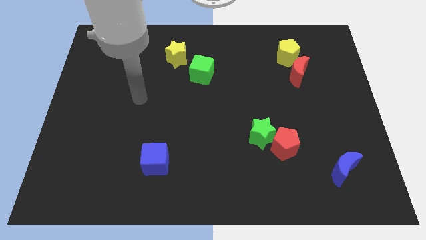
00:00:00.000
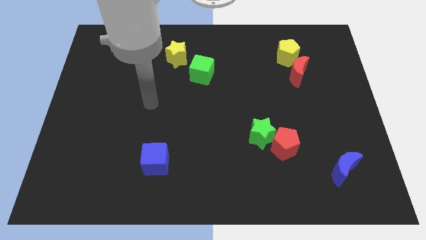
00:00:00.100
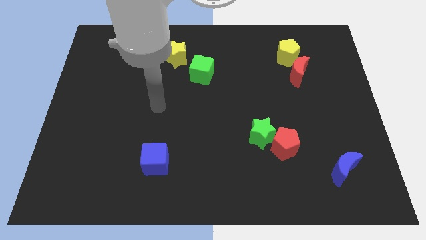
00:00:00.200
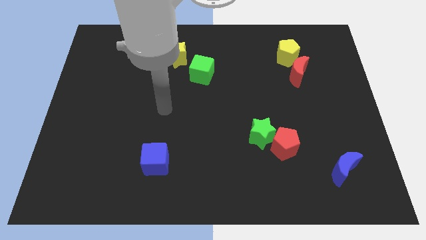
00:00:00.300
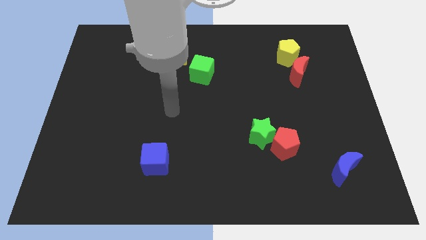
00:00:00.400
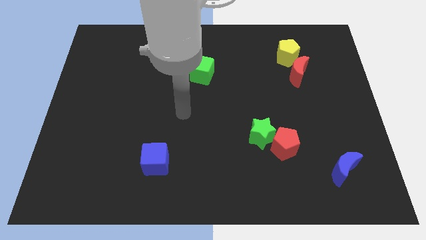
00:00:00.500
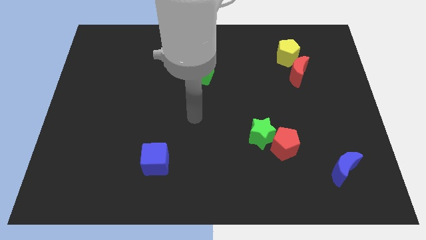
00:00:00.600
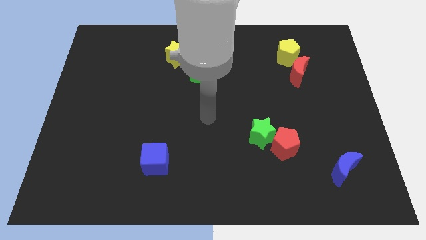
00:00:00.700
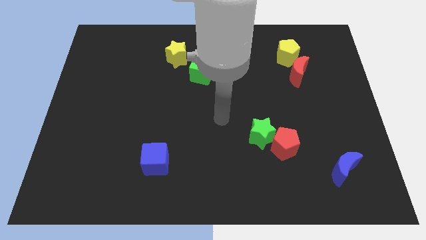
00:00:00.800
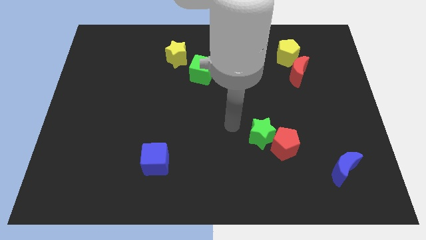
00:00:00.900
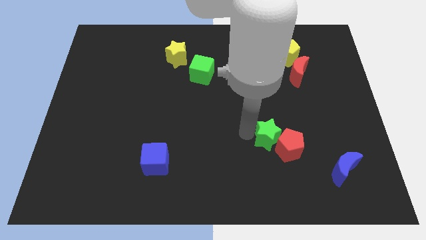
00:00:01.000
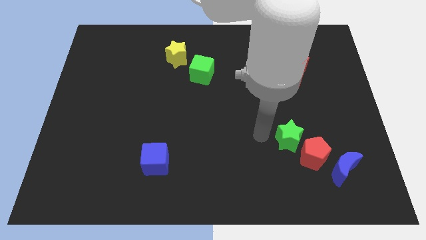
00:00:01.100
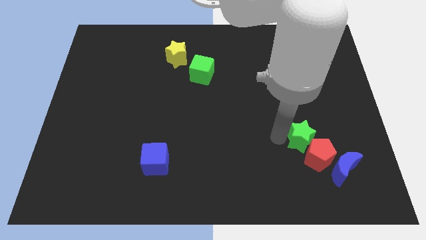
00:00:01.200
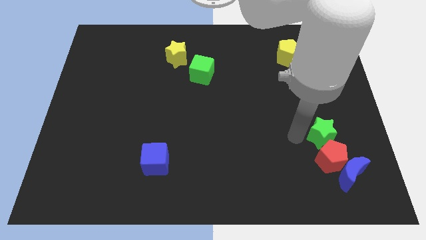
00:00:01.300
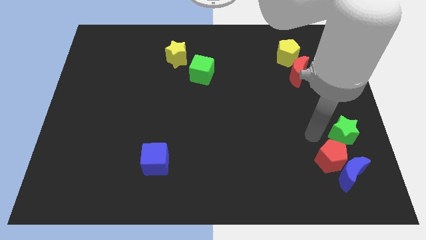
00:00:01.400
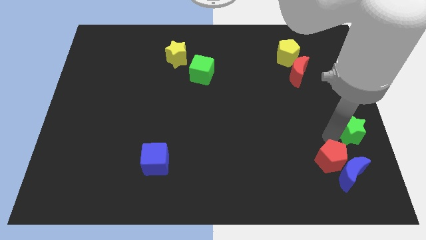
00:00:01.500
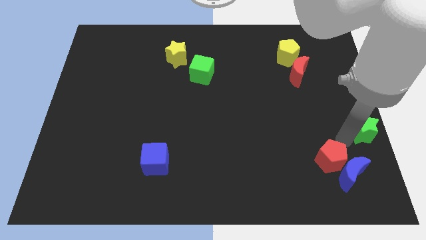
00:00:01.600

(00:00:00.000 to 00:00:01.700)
pull the red pentagon apart from the green star

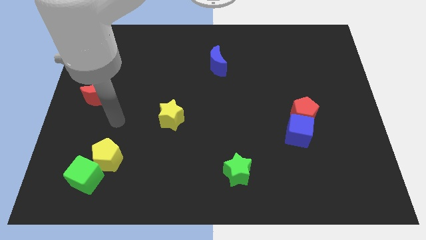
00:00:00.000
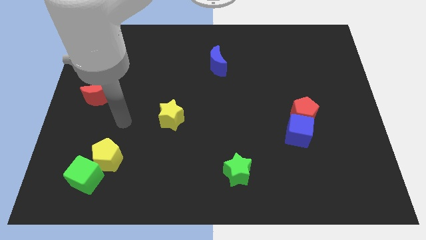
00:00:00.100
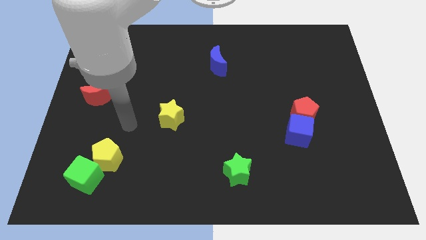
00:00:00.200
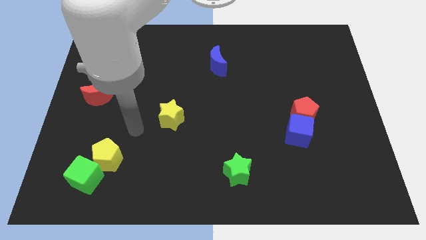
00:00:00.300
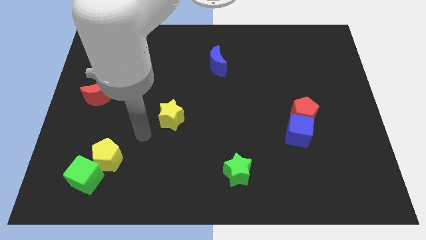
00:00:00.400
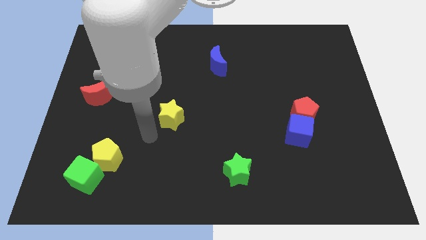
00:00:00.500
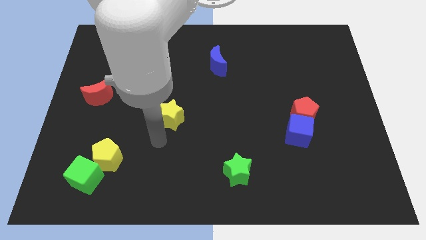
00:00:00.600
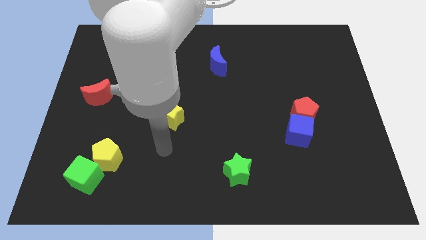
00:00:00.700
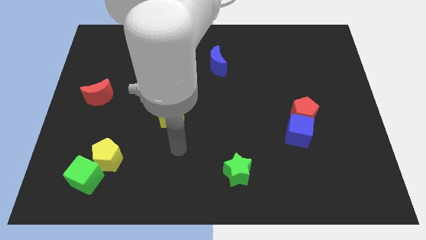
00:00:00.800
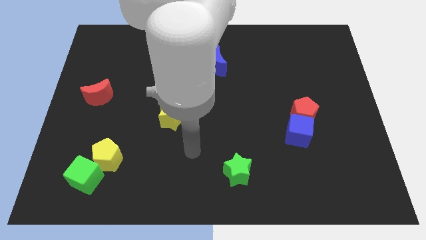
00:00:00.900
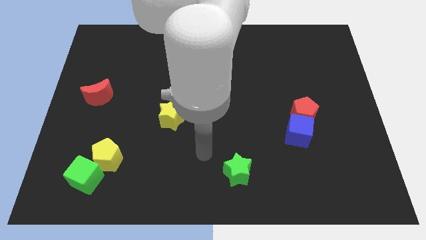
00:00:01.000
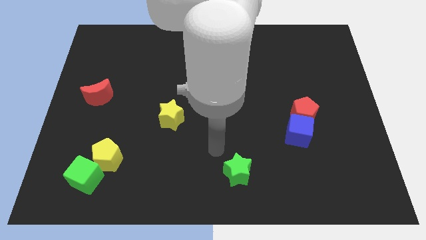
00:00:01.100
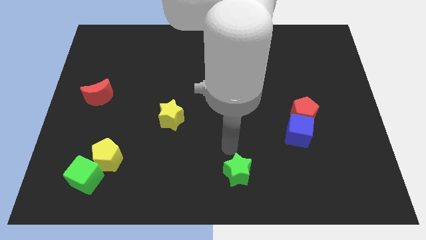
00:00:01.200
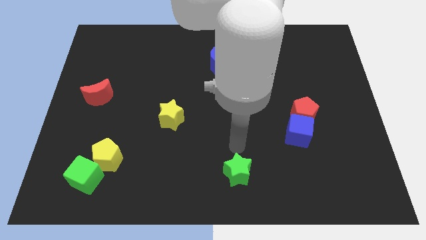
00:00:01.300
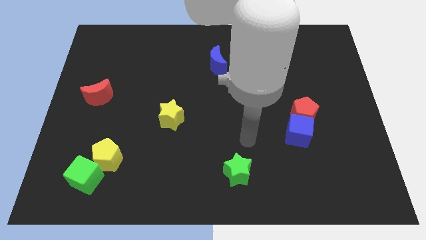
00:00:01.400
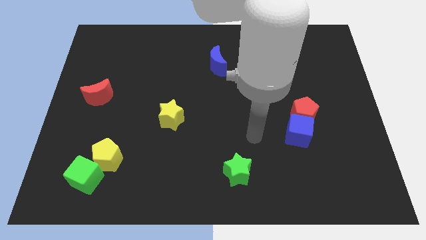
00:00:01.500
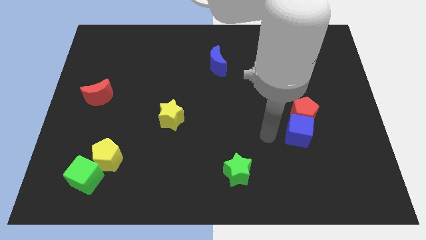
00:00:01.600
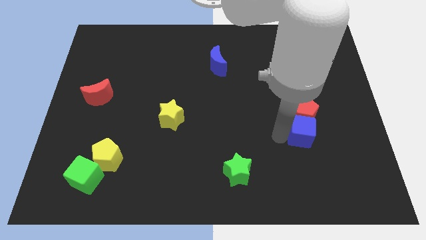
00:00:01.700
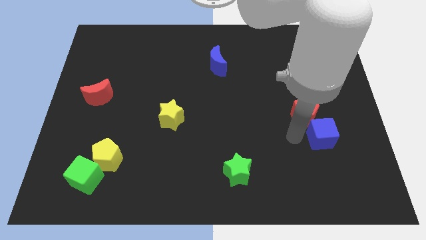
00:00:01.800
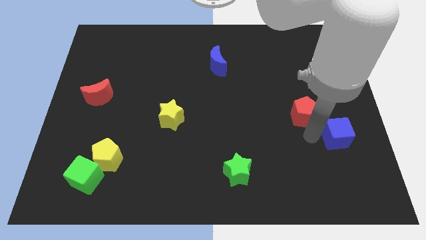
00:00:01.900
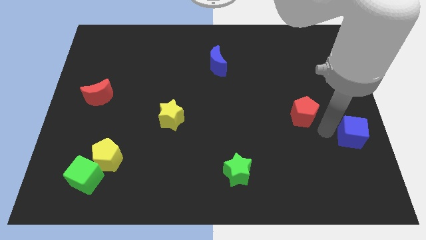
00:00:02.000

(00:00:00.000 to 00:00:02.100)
move the red pentagon away from the blue cube

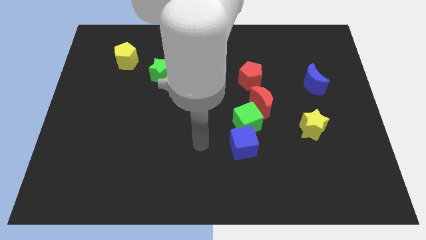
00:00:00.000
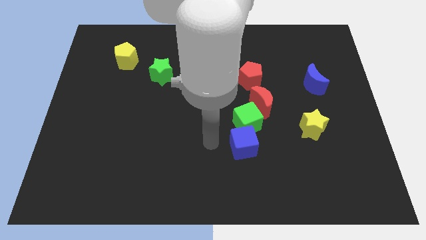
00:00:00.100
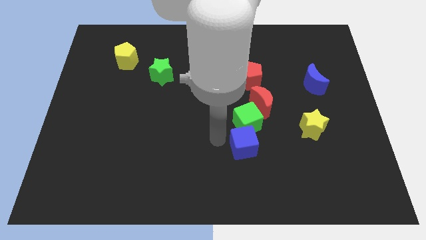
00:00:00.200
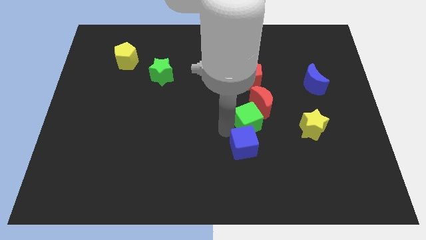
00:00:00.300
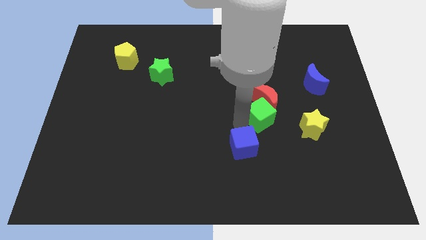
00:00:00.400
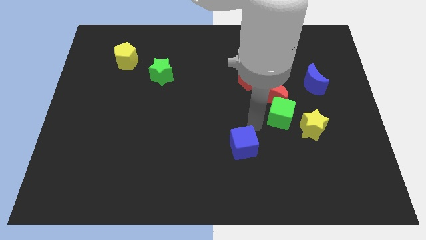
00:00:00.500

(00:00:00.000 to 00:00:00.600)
move the blue cube away from the green cube

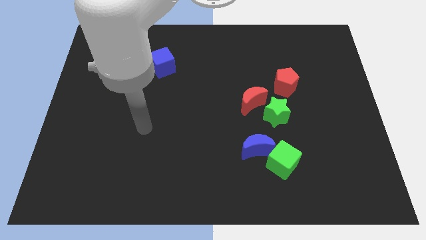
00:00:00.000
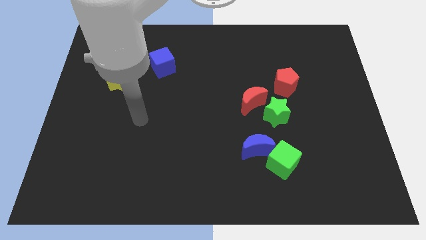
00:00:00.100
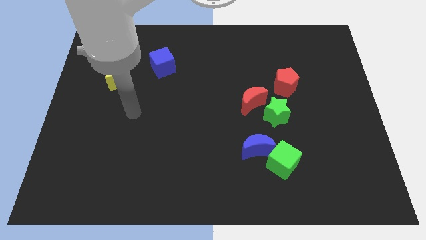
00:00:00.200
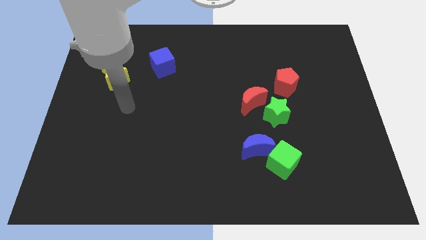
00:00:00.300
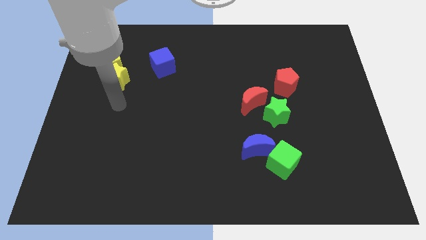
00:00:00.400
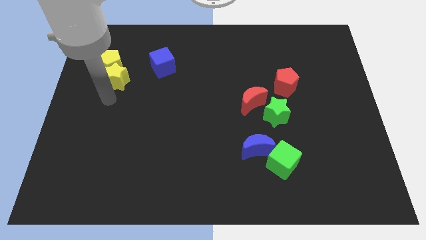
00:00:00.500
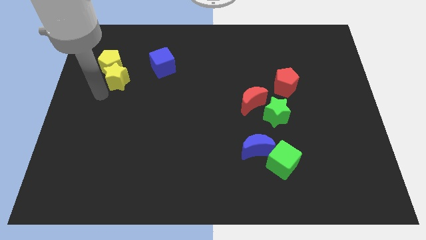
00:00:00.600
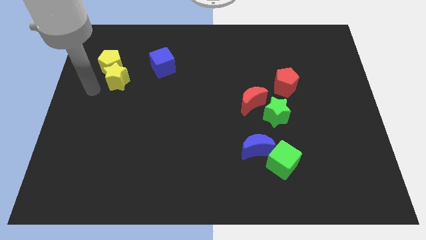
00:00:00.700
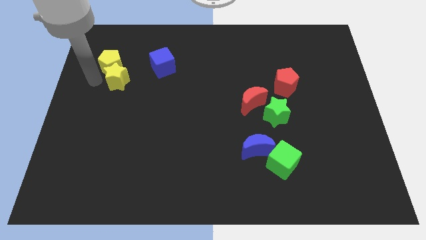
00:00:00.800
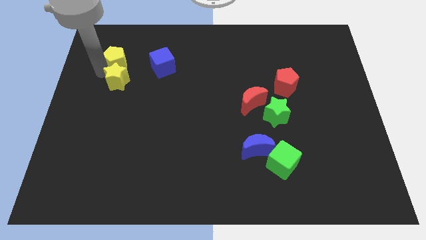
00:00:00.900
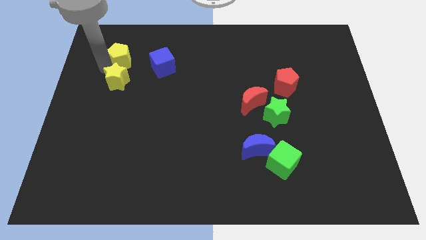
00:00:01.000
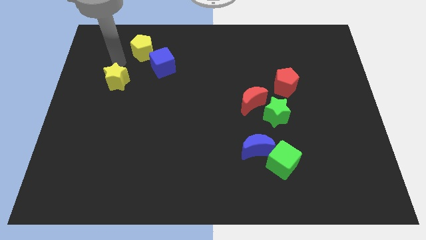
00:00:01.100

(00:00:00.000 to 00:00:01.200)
pull the yellow star apart from the yellow pentagon

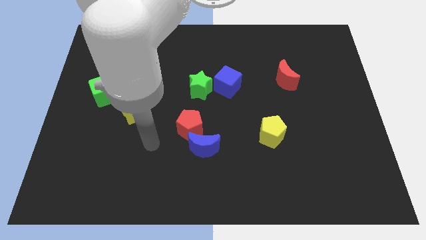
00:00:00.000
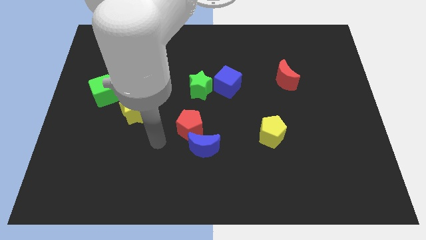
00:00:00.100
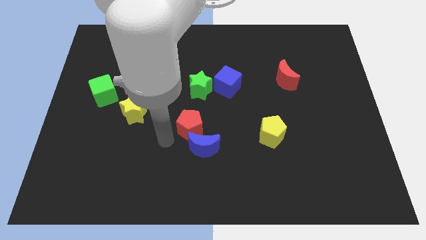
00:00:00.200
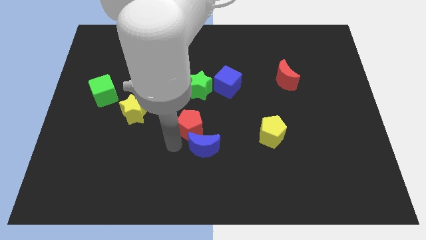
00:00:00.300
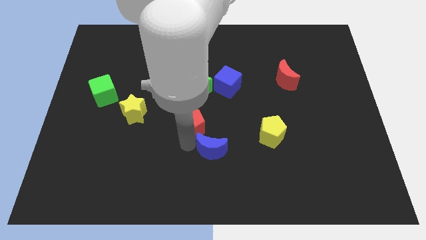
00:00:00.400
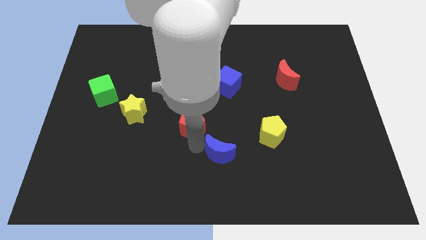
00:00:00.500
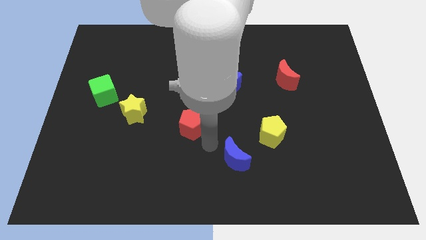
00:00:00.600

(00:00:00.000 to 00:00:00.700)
pull the red pentagon apart from the blue moon

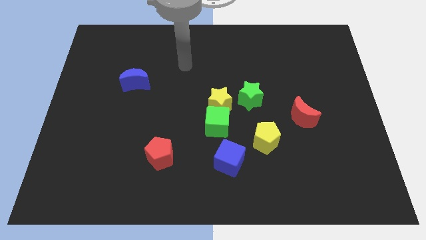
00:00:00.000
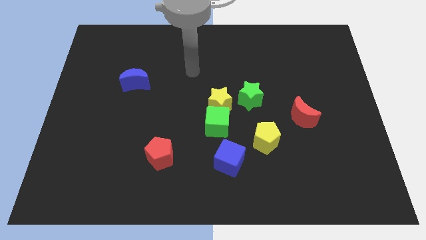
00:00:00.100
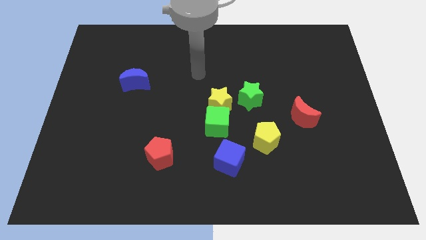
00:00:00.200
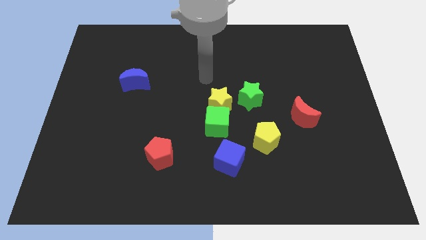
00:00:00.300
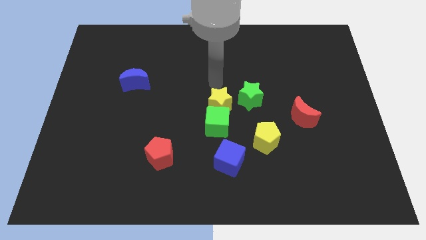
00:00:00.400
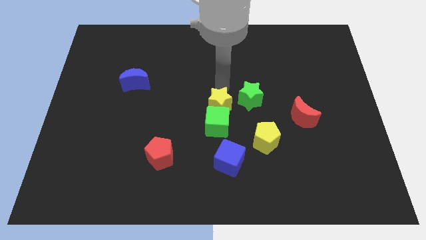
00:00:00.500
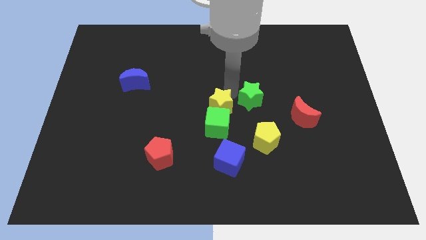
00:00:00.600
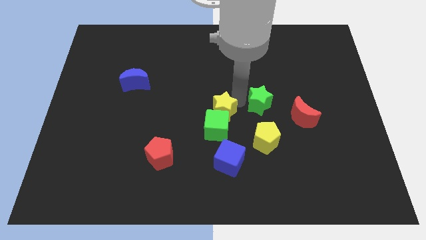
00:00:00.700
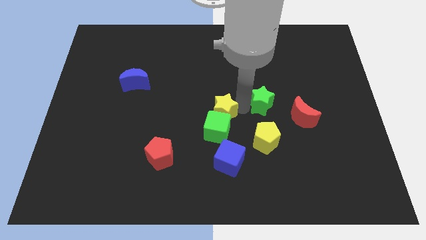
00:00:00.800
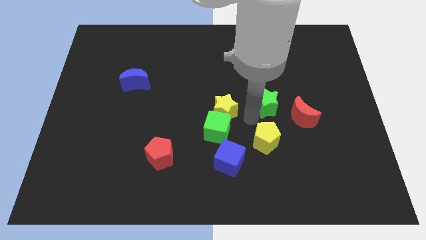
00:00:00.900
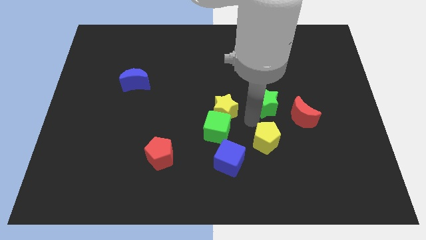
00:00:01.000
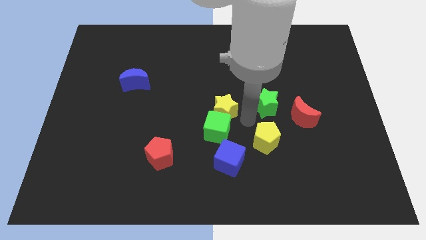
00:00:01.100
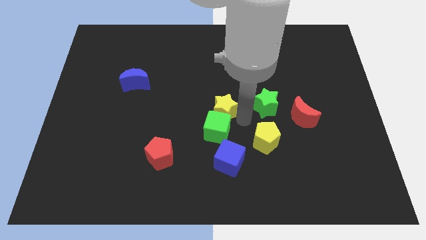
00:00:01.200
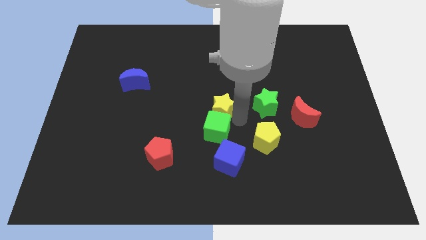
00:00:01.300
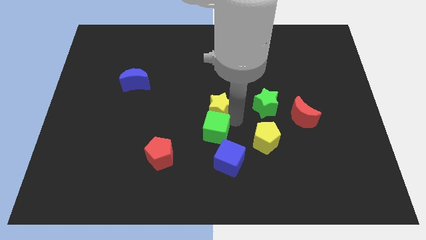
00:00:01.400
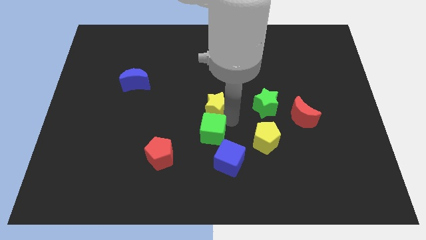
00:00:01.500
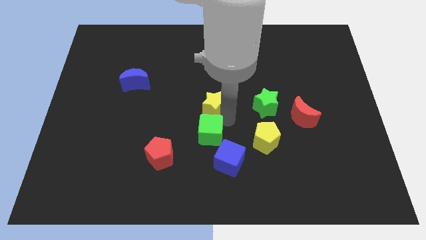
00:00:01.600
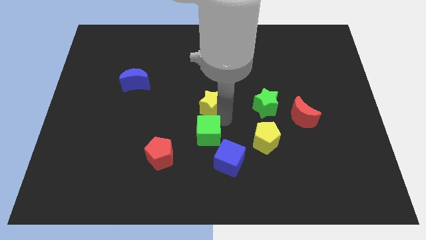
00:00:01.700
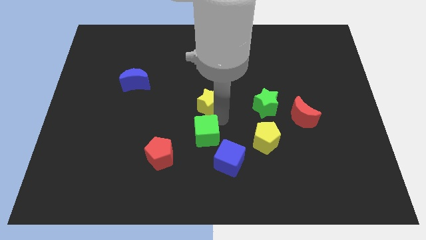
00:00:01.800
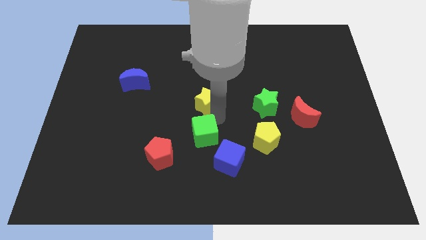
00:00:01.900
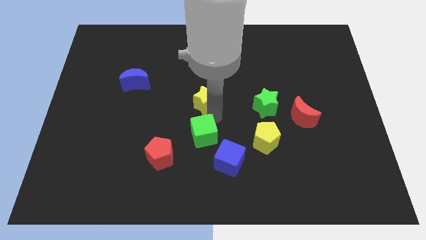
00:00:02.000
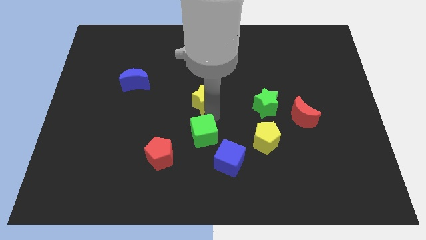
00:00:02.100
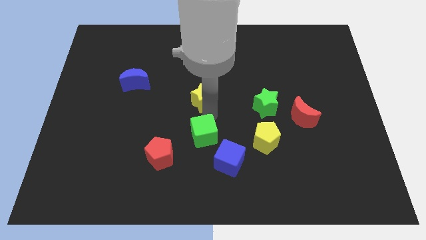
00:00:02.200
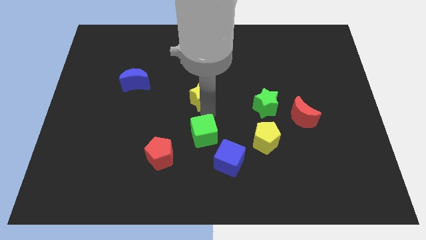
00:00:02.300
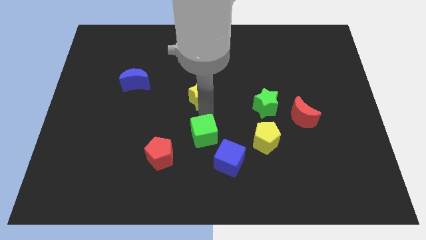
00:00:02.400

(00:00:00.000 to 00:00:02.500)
move the yellow star away from the green cube and green star

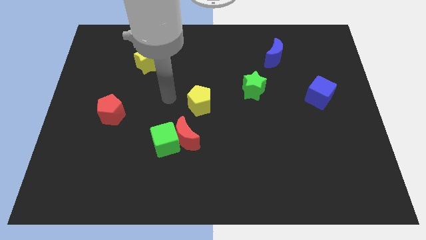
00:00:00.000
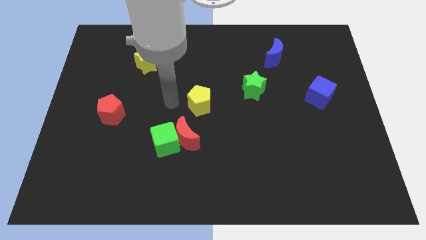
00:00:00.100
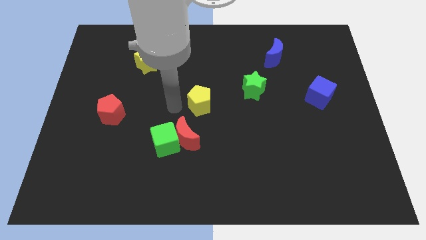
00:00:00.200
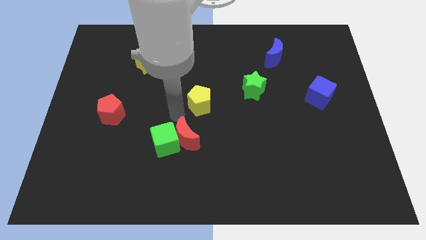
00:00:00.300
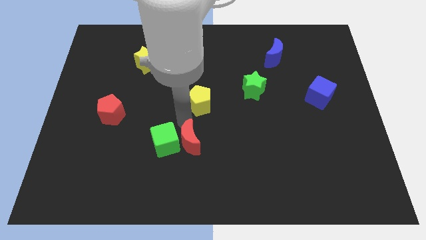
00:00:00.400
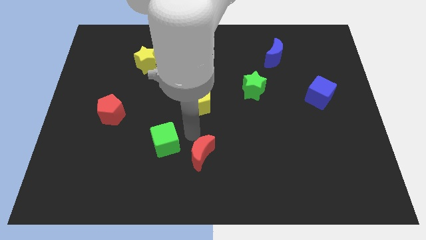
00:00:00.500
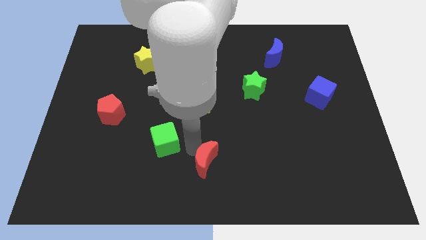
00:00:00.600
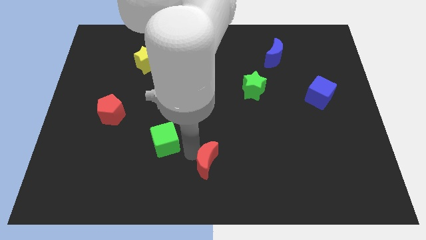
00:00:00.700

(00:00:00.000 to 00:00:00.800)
move the green cube away from the red moon
